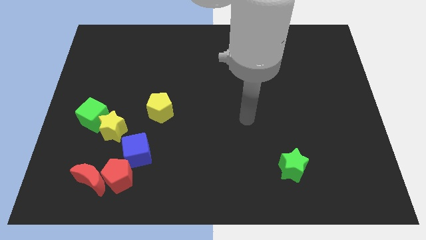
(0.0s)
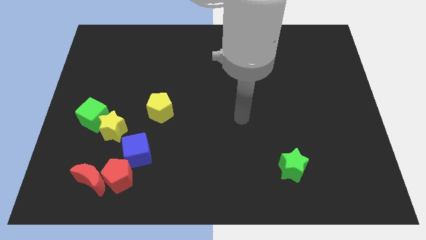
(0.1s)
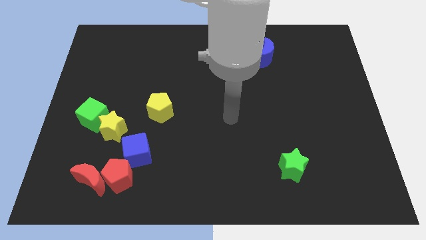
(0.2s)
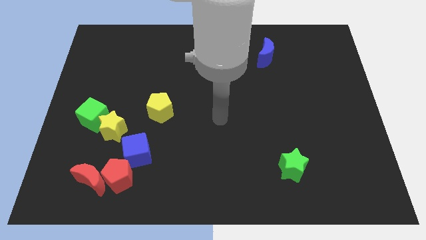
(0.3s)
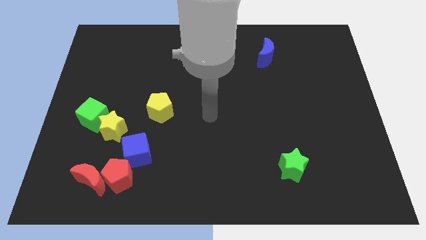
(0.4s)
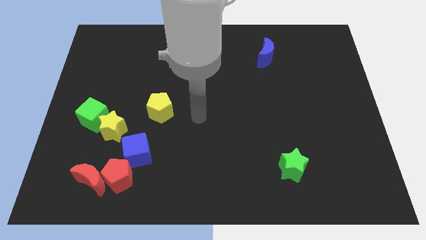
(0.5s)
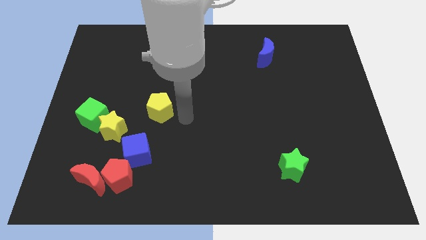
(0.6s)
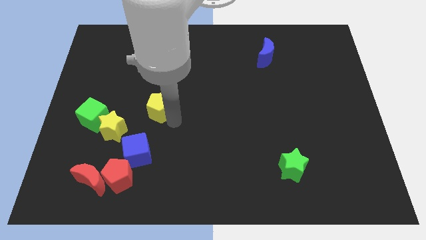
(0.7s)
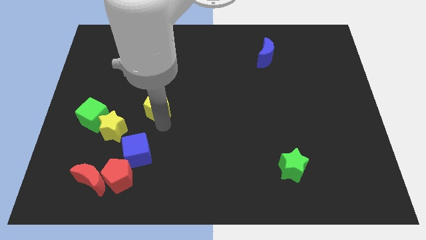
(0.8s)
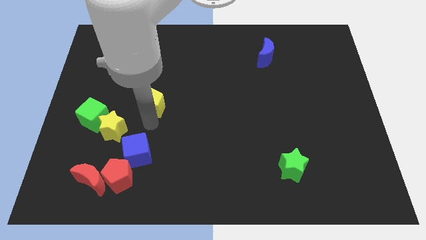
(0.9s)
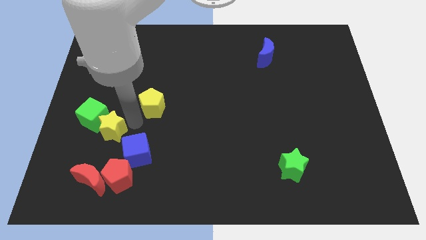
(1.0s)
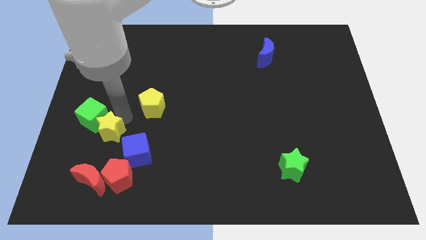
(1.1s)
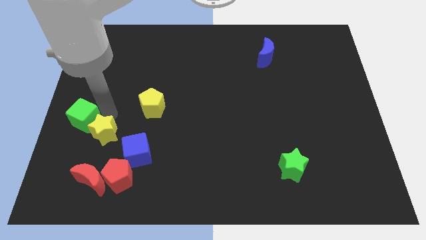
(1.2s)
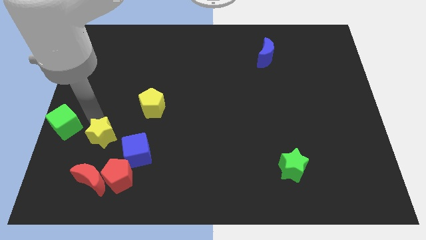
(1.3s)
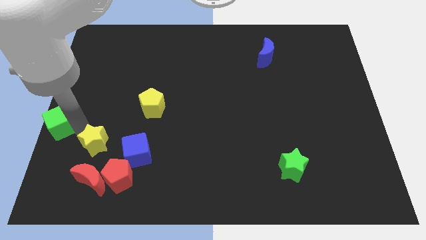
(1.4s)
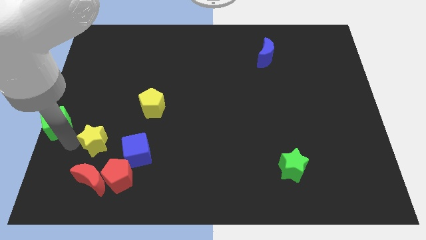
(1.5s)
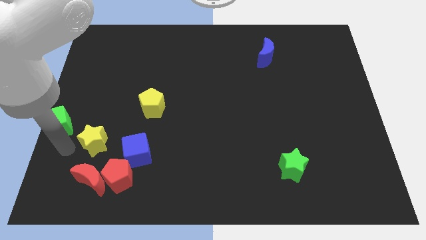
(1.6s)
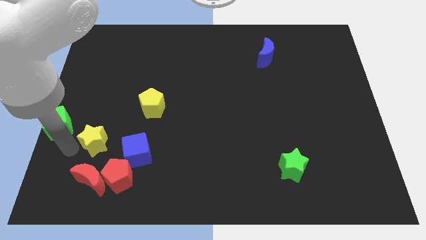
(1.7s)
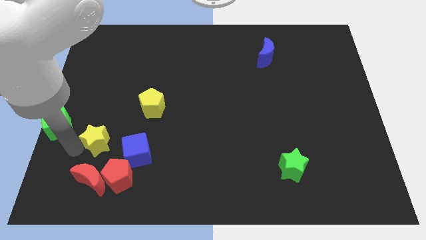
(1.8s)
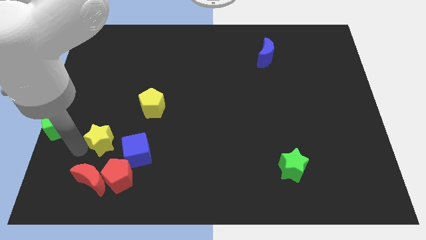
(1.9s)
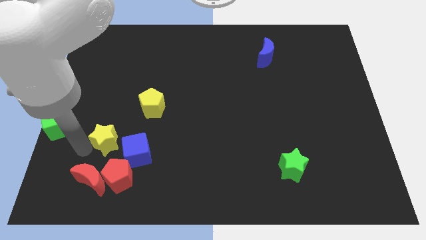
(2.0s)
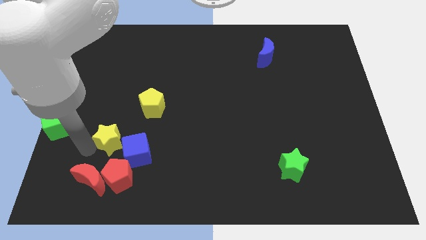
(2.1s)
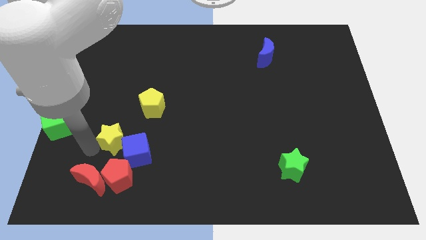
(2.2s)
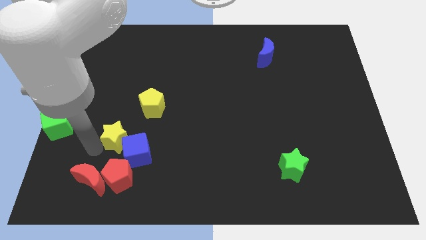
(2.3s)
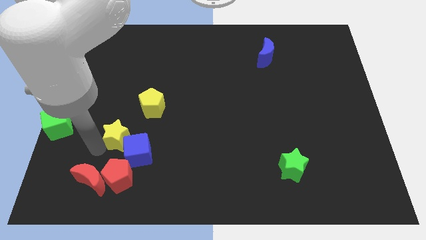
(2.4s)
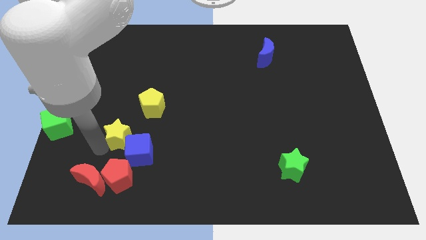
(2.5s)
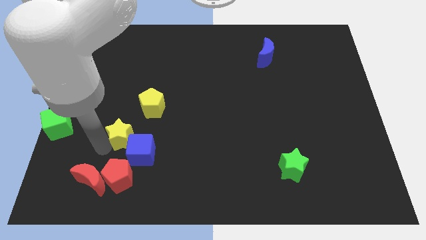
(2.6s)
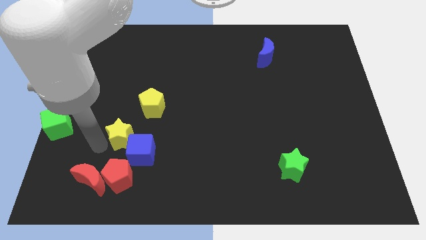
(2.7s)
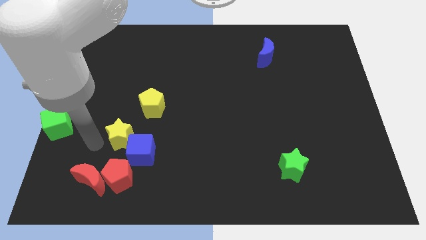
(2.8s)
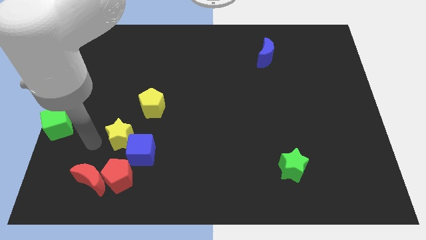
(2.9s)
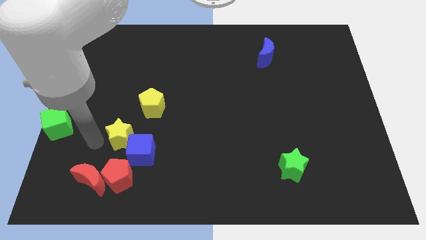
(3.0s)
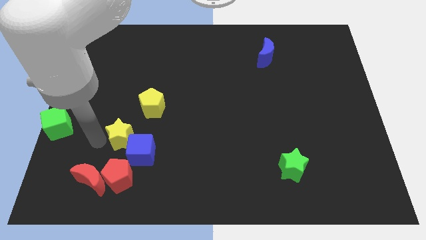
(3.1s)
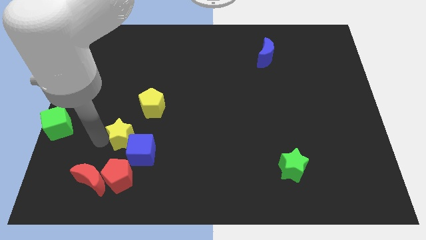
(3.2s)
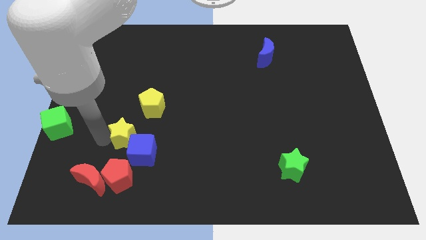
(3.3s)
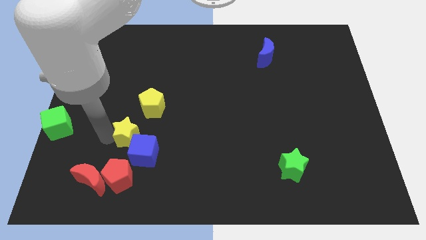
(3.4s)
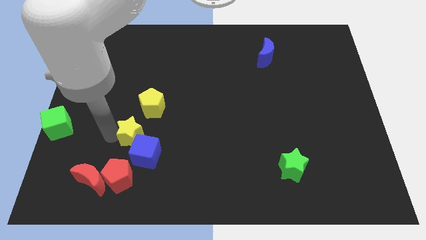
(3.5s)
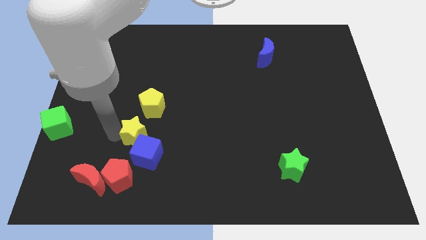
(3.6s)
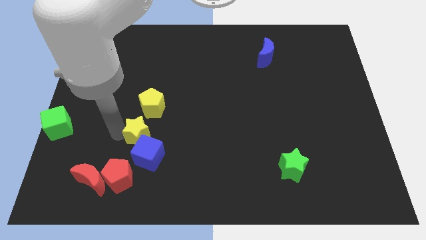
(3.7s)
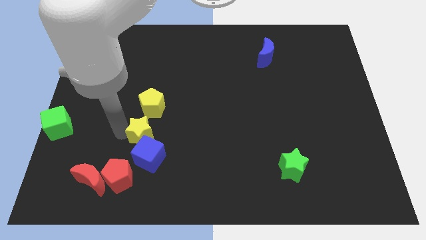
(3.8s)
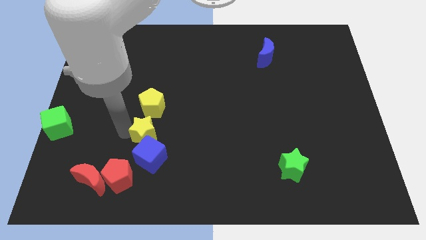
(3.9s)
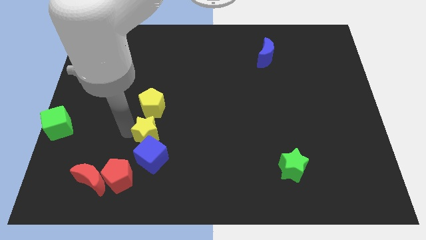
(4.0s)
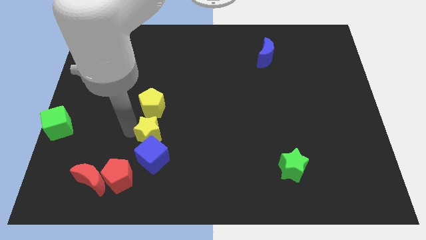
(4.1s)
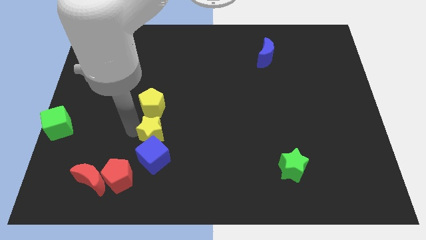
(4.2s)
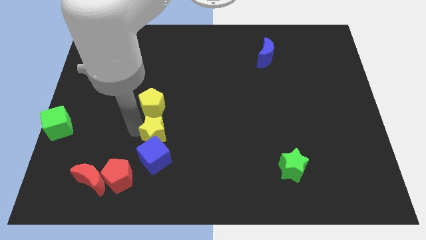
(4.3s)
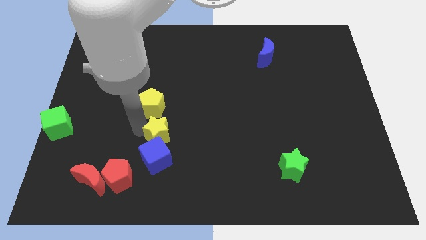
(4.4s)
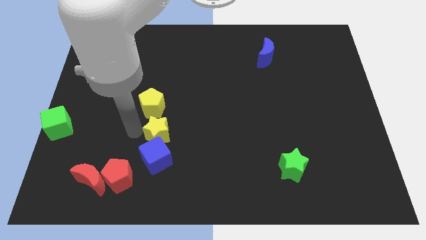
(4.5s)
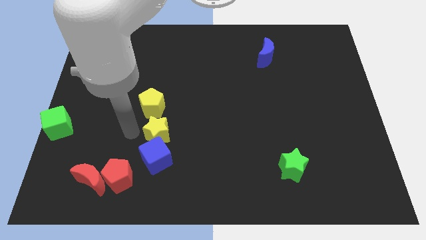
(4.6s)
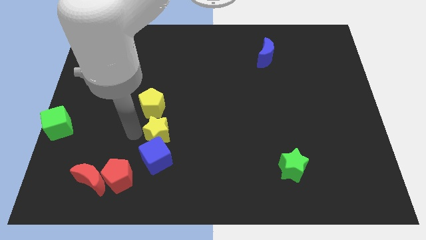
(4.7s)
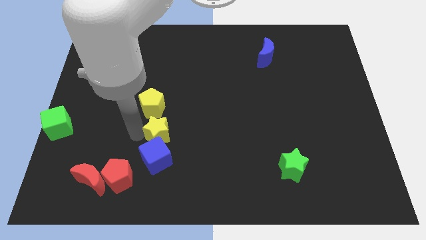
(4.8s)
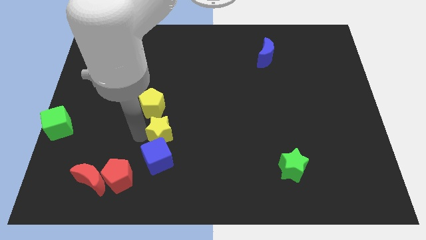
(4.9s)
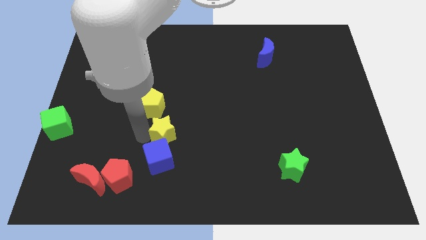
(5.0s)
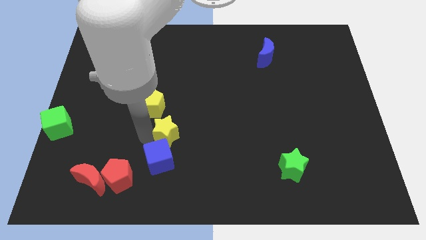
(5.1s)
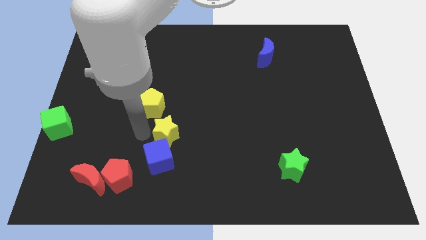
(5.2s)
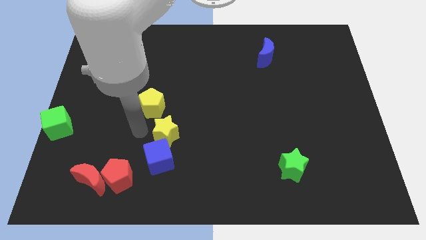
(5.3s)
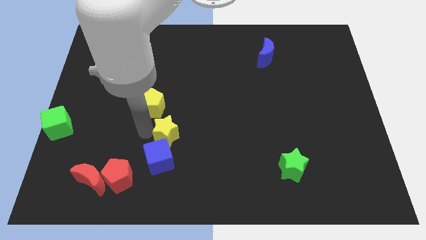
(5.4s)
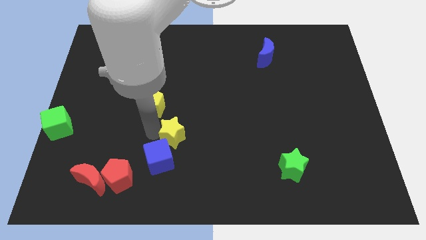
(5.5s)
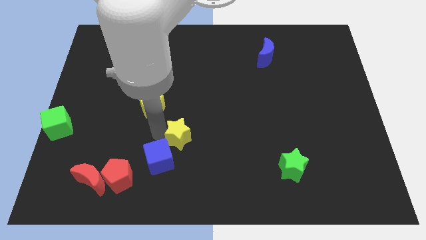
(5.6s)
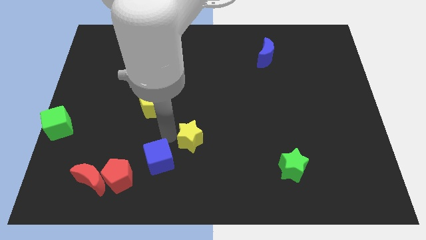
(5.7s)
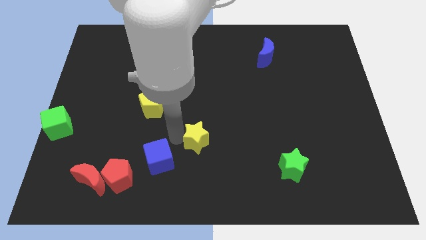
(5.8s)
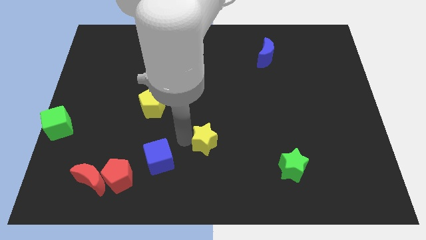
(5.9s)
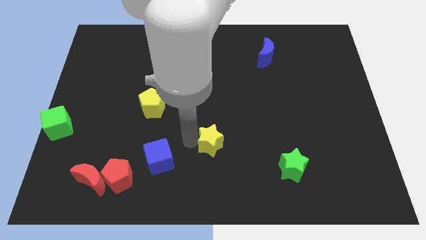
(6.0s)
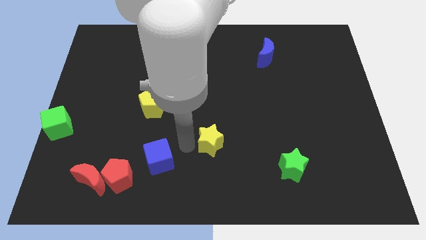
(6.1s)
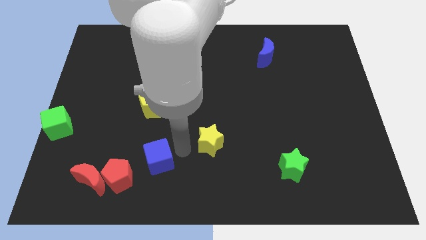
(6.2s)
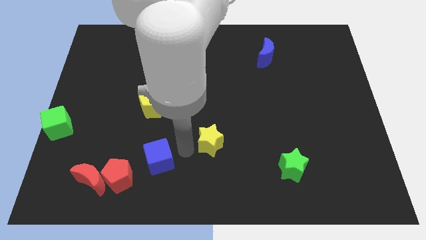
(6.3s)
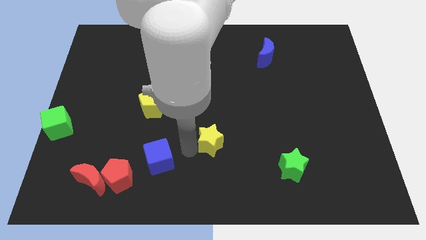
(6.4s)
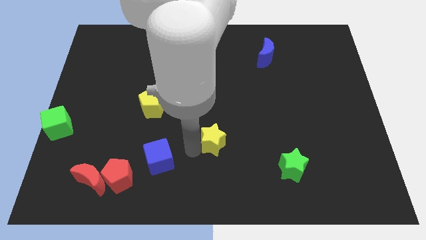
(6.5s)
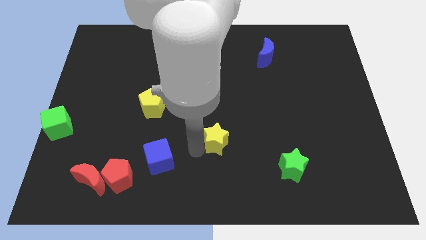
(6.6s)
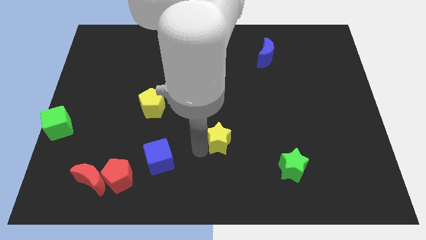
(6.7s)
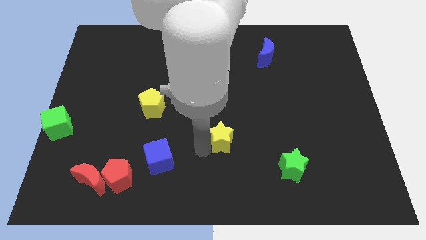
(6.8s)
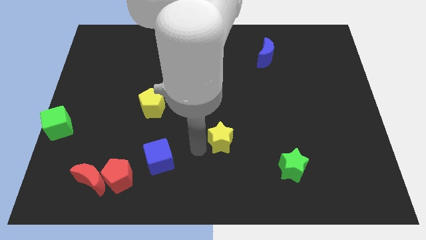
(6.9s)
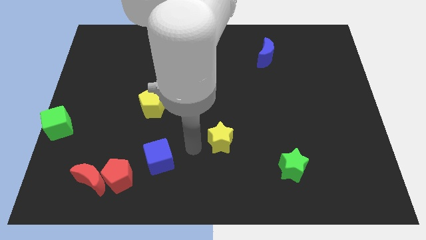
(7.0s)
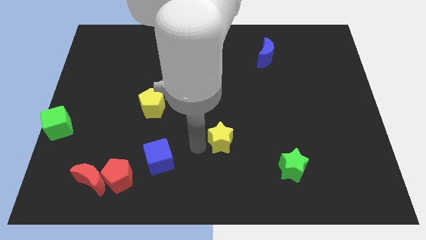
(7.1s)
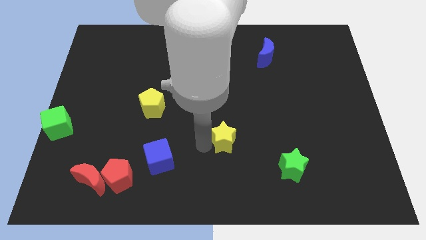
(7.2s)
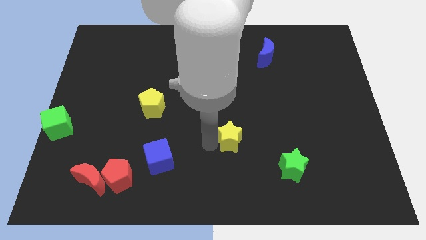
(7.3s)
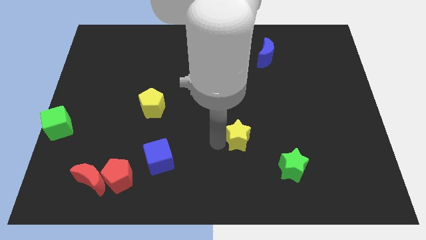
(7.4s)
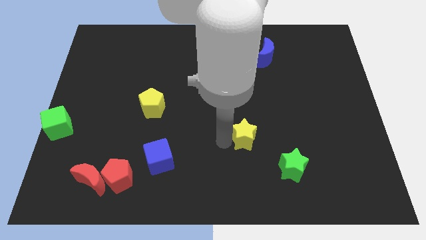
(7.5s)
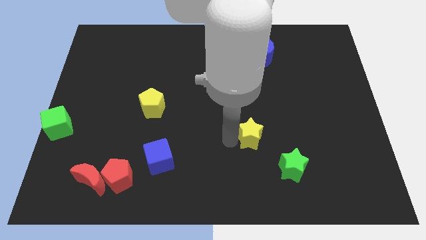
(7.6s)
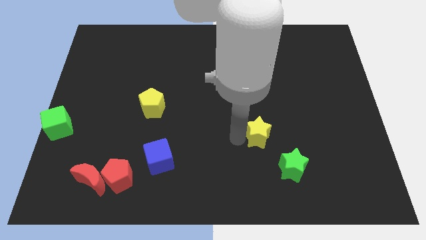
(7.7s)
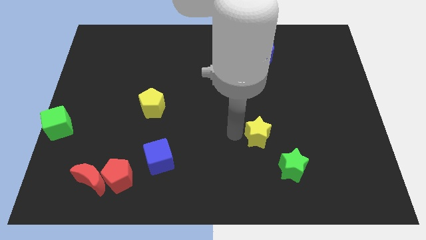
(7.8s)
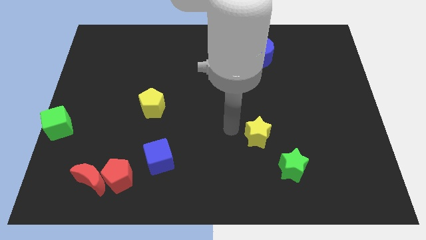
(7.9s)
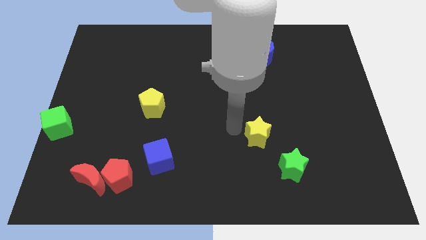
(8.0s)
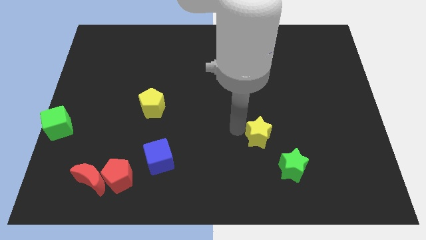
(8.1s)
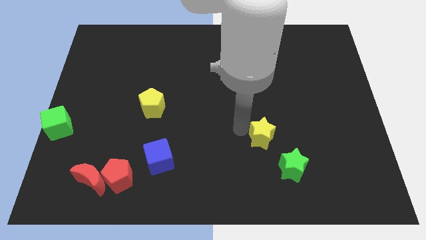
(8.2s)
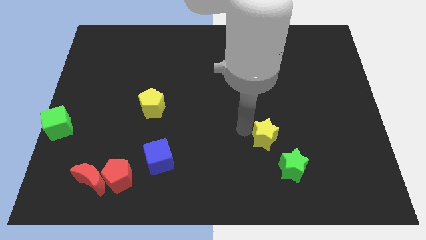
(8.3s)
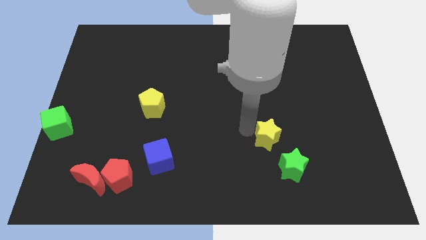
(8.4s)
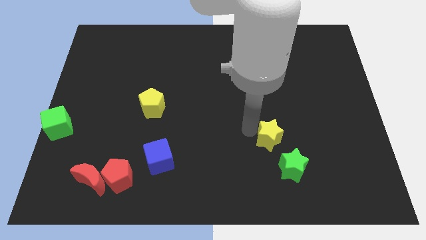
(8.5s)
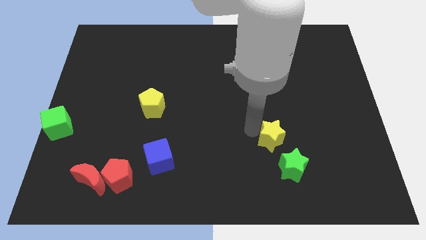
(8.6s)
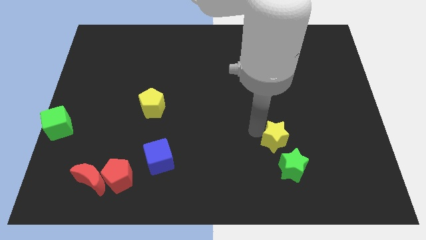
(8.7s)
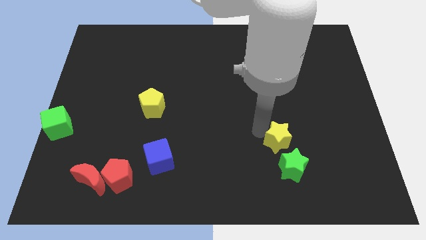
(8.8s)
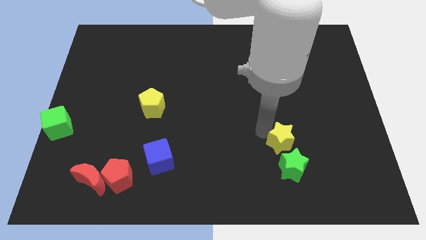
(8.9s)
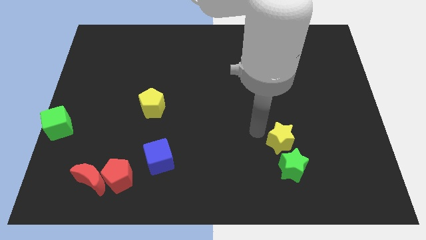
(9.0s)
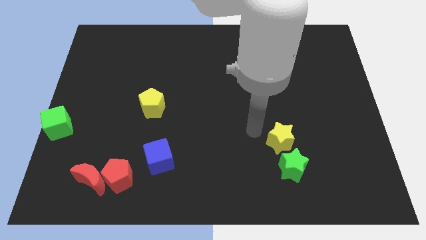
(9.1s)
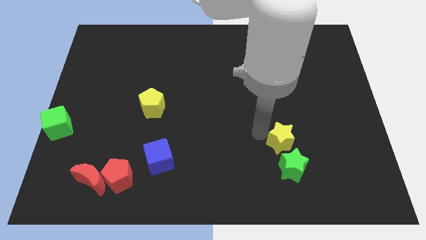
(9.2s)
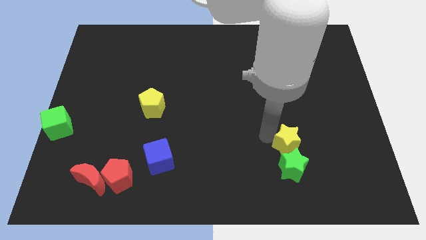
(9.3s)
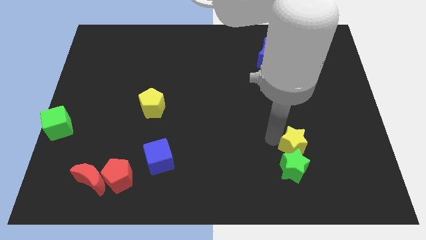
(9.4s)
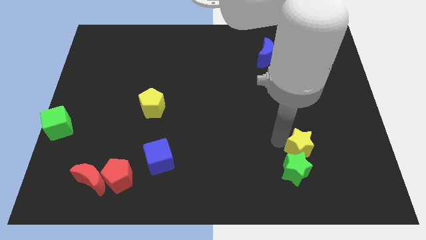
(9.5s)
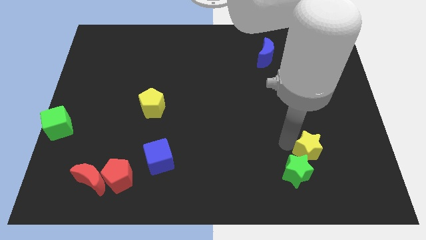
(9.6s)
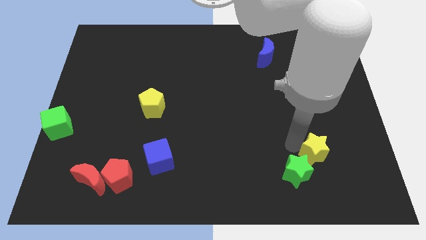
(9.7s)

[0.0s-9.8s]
move the yellow star just right of the green star
